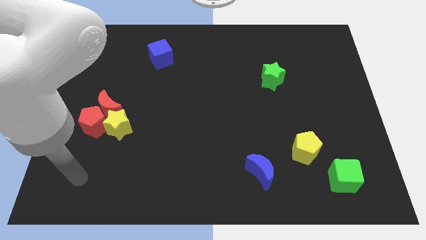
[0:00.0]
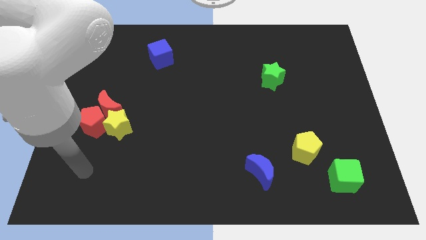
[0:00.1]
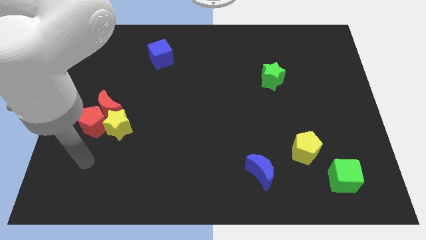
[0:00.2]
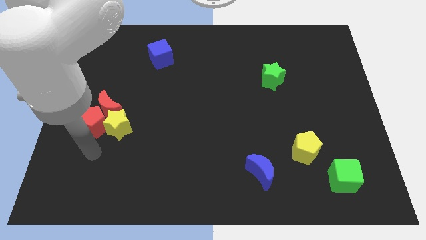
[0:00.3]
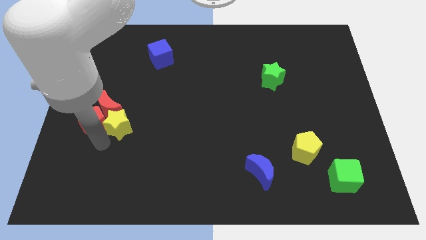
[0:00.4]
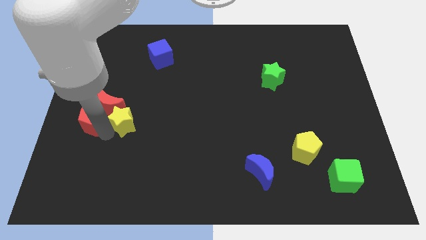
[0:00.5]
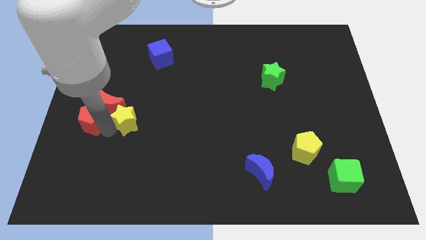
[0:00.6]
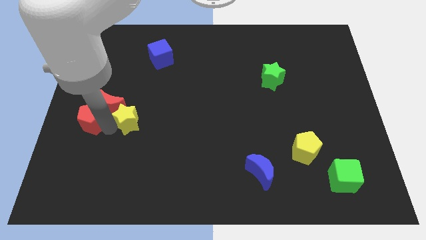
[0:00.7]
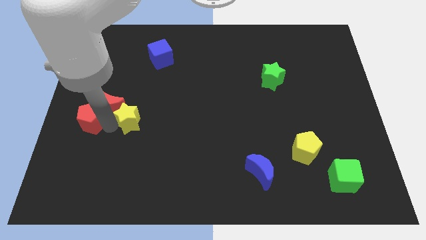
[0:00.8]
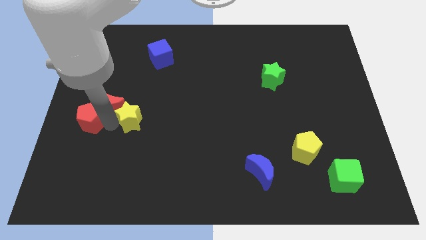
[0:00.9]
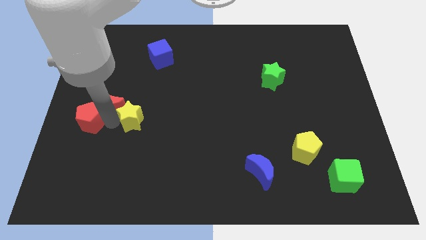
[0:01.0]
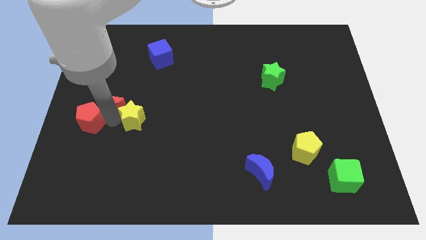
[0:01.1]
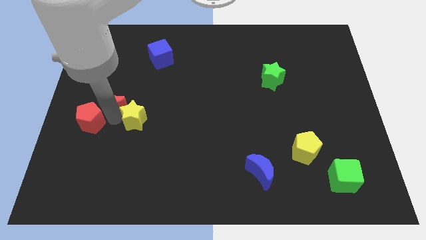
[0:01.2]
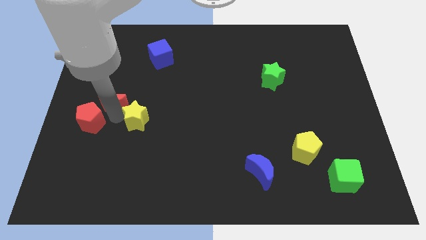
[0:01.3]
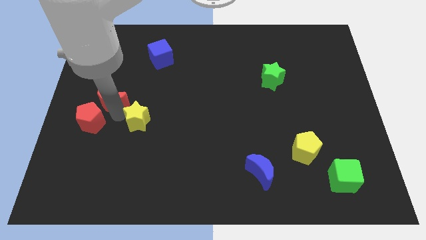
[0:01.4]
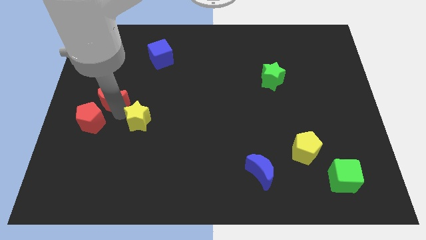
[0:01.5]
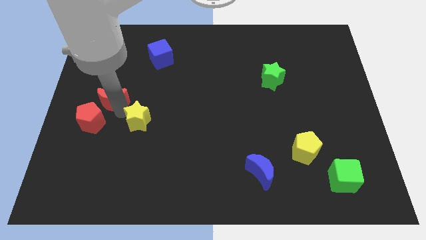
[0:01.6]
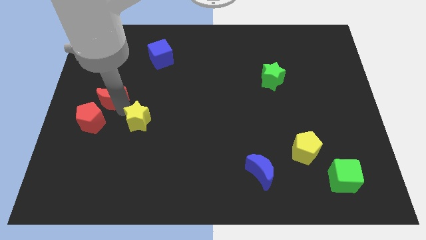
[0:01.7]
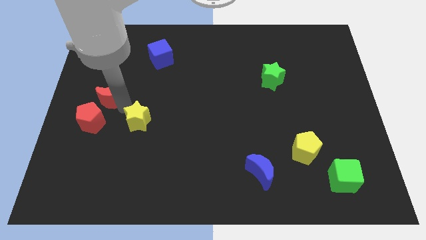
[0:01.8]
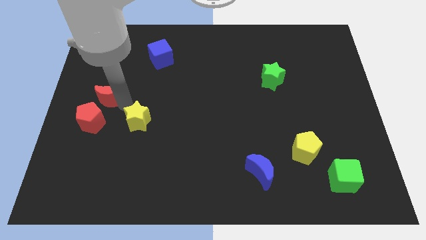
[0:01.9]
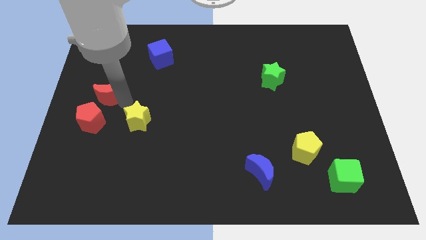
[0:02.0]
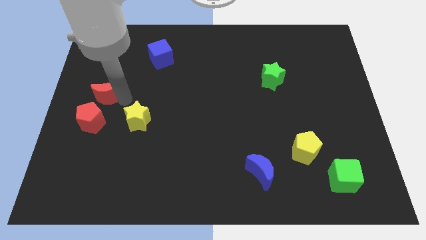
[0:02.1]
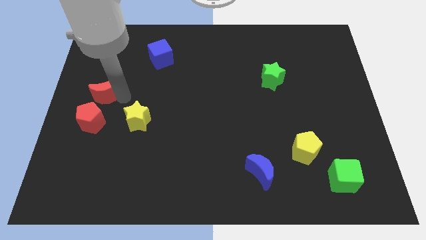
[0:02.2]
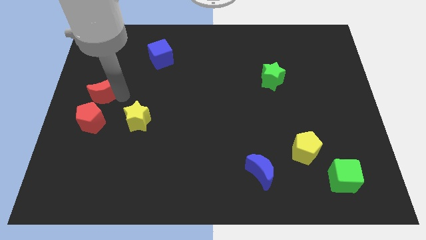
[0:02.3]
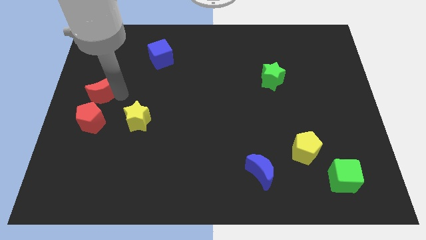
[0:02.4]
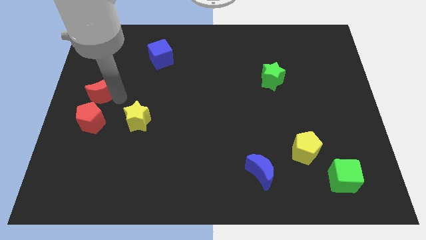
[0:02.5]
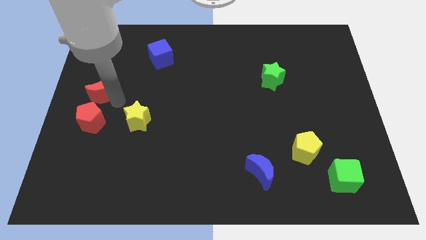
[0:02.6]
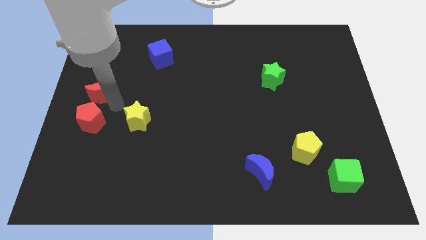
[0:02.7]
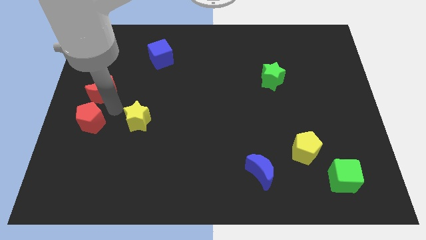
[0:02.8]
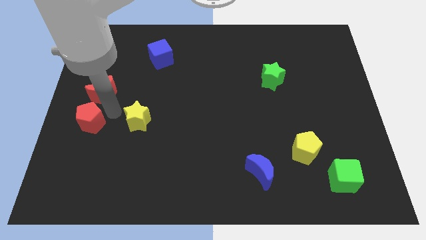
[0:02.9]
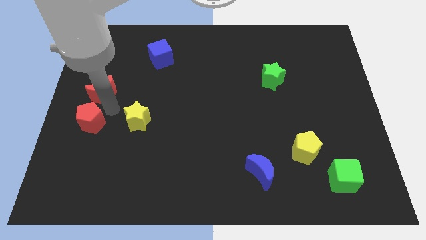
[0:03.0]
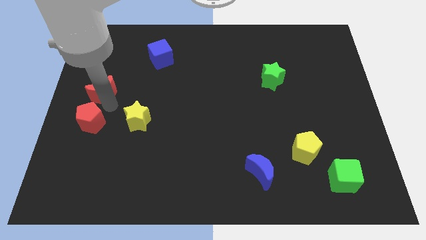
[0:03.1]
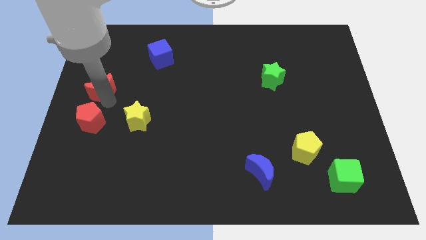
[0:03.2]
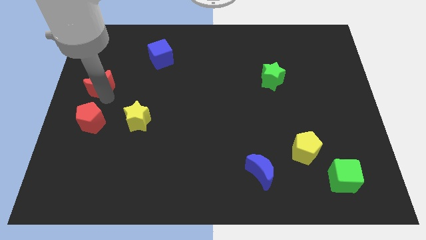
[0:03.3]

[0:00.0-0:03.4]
move the red moon away from the red pentagon and yellow star

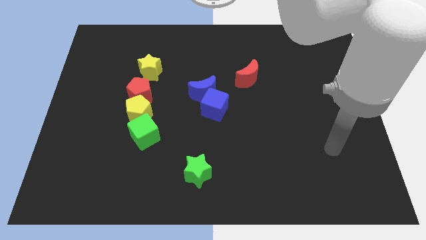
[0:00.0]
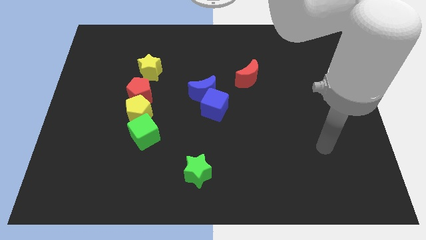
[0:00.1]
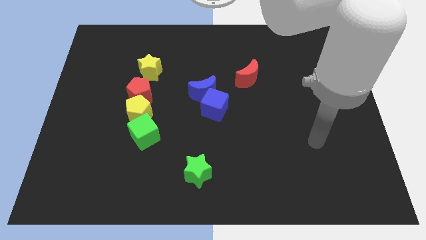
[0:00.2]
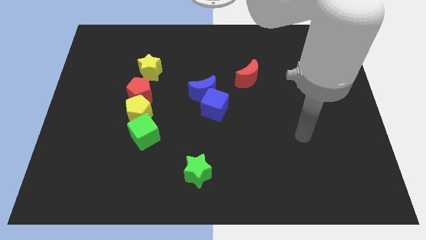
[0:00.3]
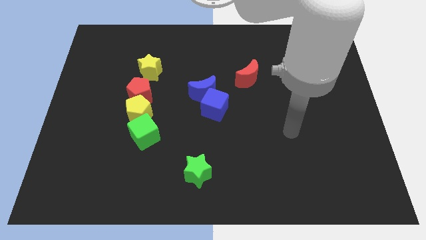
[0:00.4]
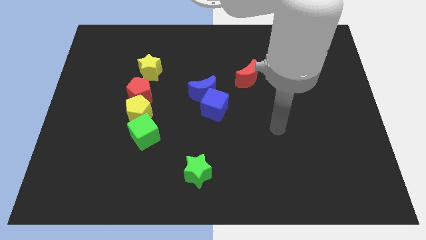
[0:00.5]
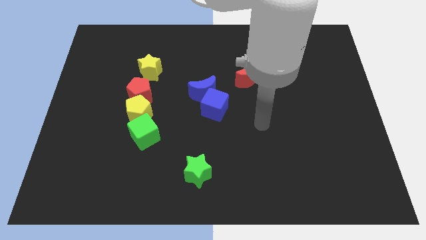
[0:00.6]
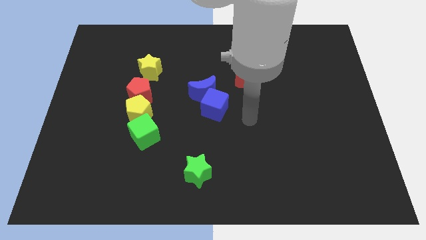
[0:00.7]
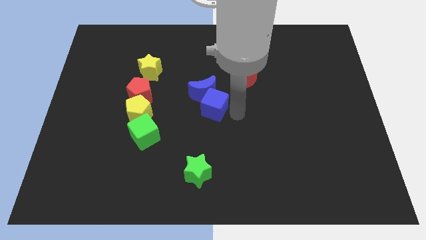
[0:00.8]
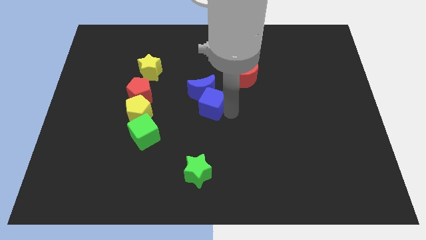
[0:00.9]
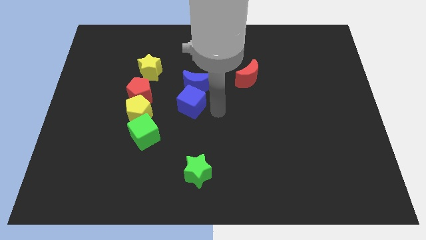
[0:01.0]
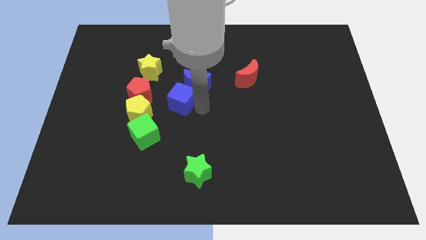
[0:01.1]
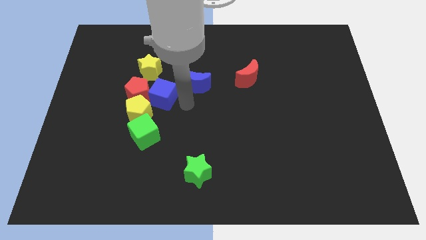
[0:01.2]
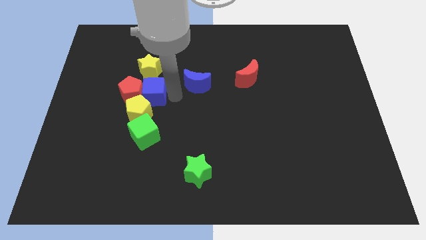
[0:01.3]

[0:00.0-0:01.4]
pull the blue moon apart from the blue cube

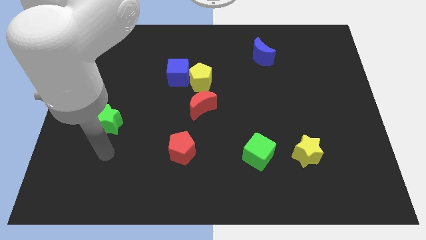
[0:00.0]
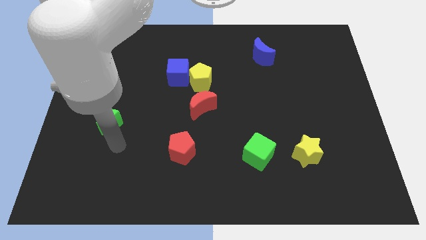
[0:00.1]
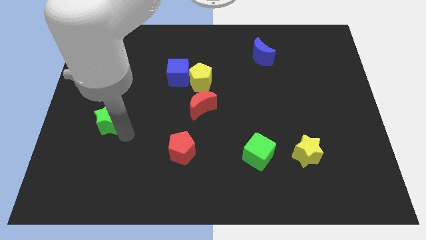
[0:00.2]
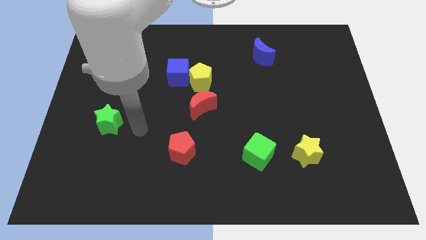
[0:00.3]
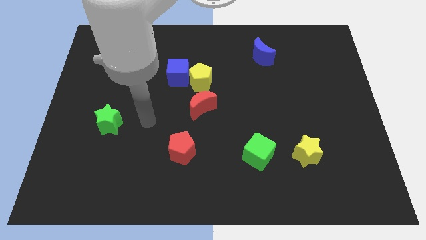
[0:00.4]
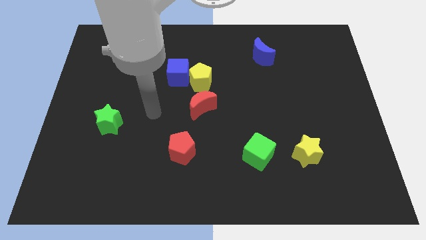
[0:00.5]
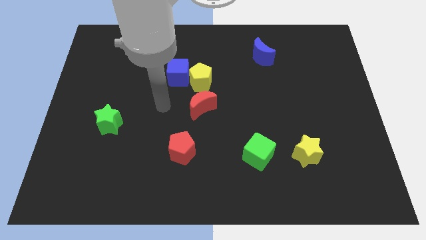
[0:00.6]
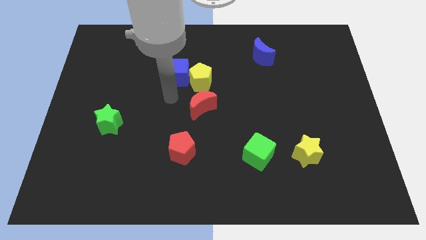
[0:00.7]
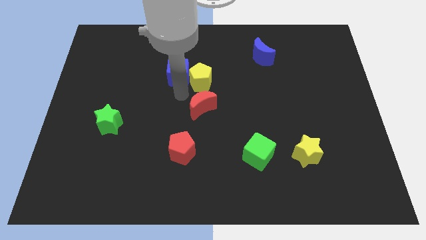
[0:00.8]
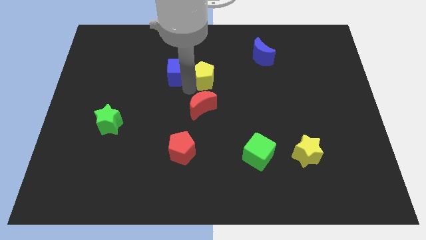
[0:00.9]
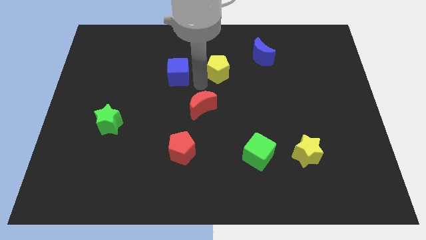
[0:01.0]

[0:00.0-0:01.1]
pull the blue cube apart from the yellow pentagon

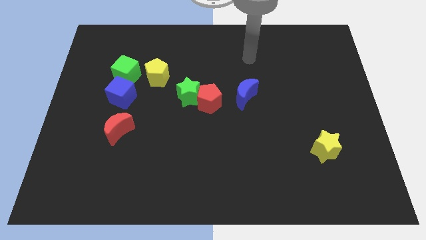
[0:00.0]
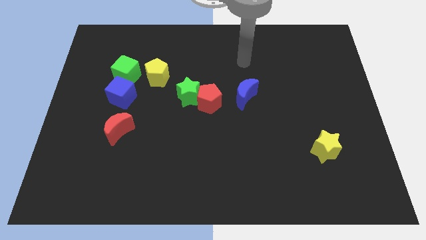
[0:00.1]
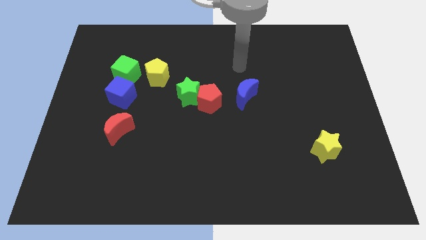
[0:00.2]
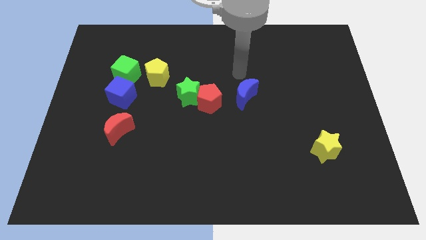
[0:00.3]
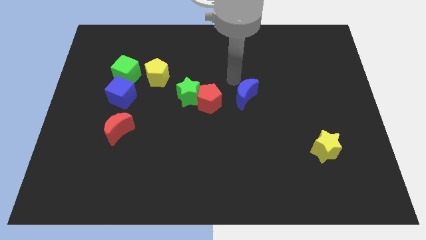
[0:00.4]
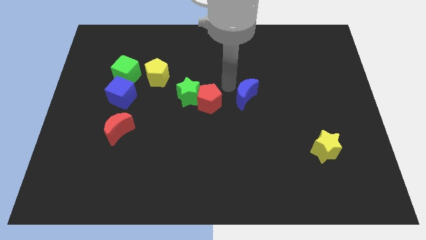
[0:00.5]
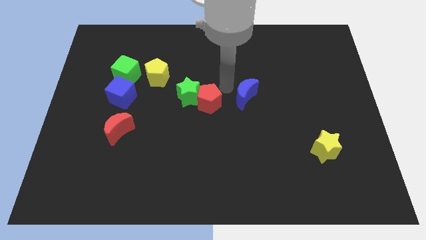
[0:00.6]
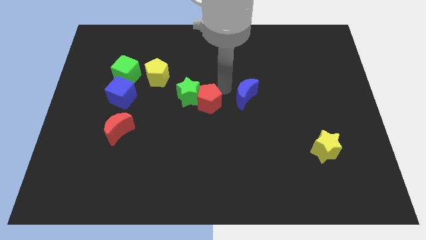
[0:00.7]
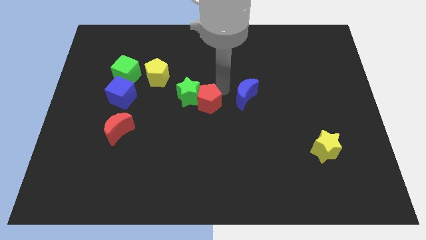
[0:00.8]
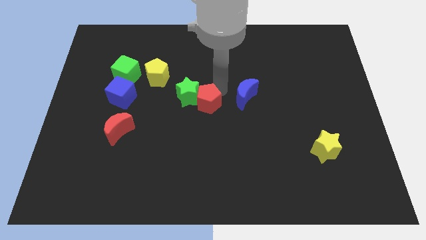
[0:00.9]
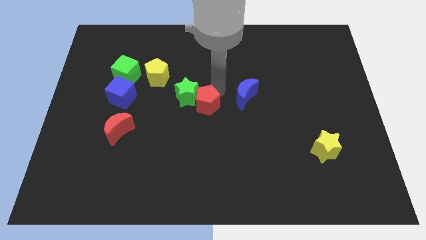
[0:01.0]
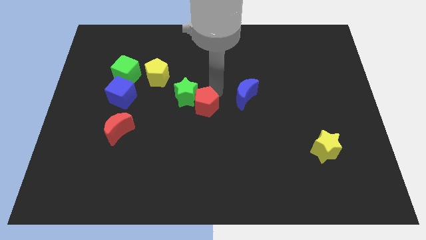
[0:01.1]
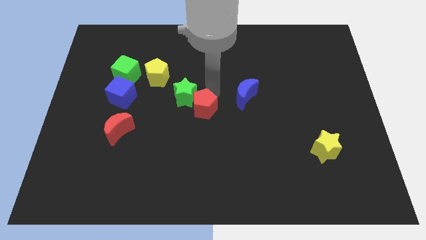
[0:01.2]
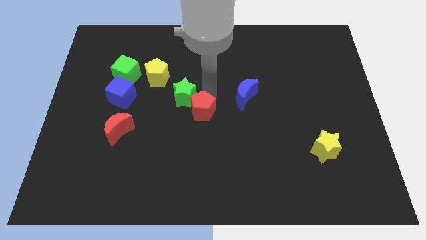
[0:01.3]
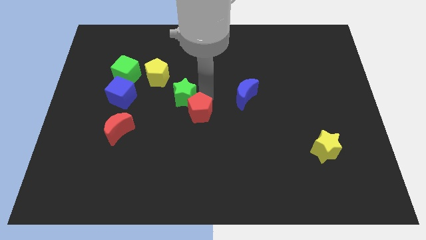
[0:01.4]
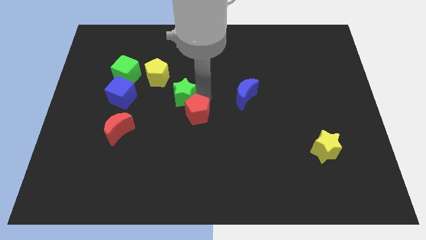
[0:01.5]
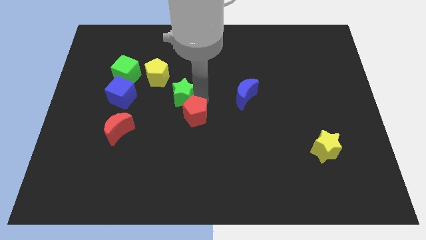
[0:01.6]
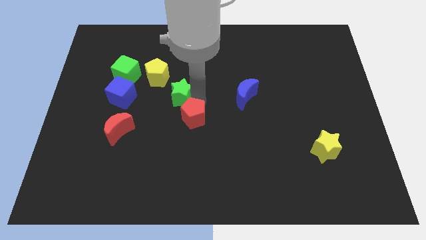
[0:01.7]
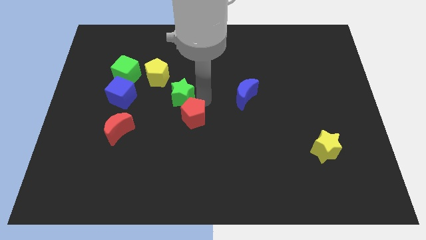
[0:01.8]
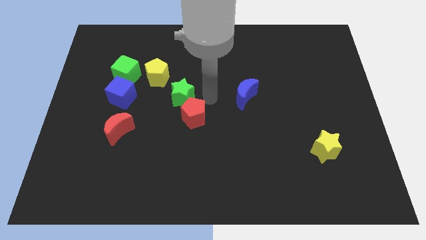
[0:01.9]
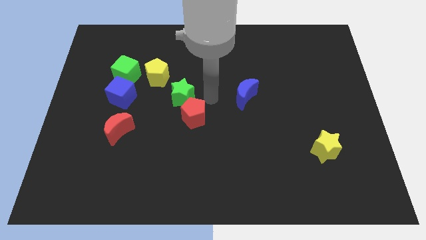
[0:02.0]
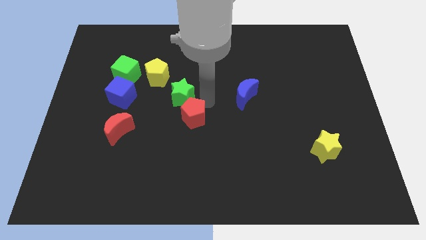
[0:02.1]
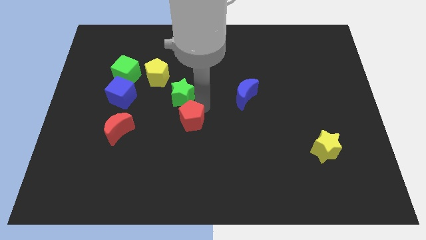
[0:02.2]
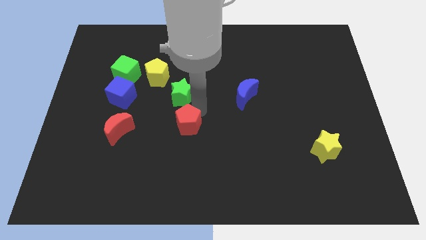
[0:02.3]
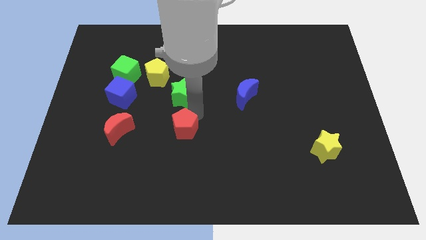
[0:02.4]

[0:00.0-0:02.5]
separate the red pentagon from the green star and blue moon

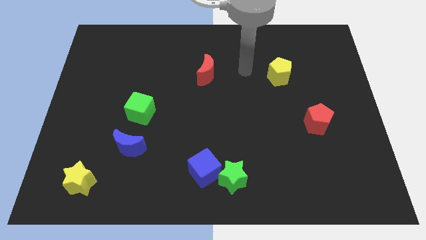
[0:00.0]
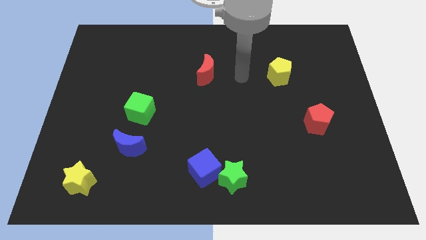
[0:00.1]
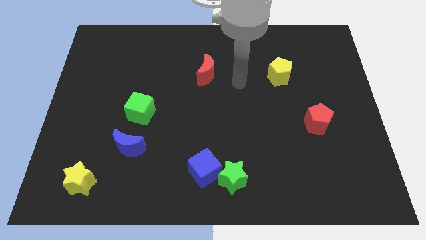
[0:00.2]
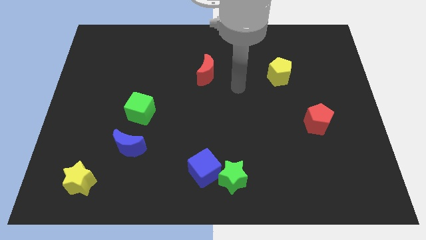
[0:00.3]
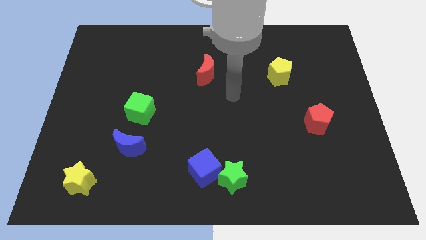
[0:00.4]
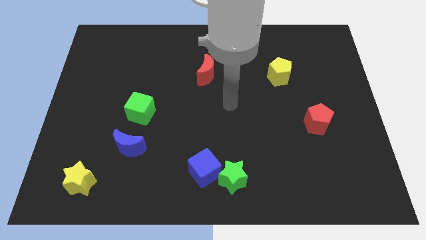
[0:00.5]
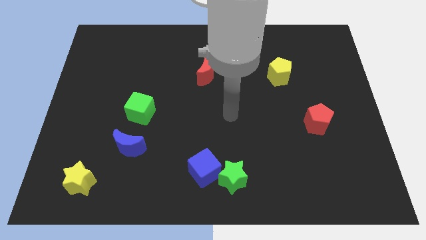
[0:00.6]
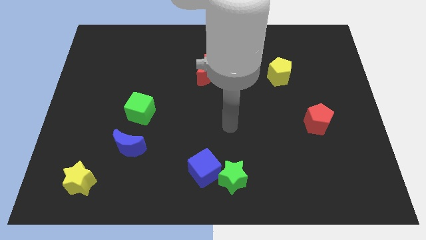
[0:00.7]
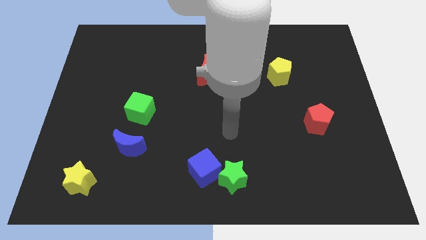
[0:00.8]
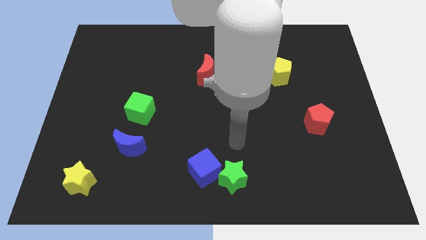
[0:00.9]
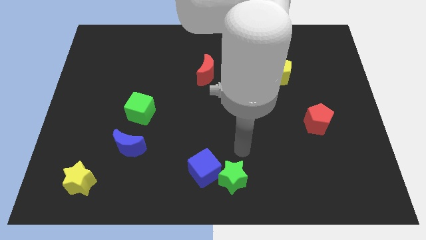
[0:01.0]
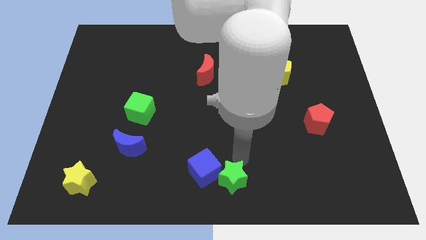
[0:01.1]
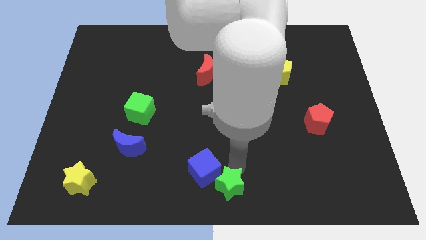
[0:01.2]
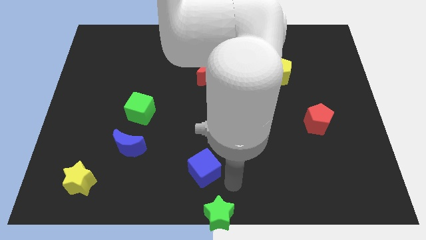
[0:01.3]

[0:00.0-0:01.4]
separate the blue cube from the green star
